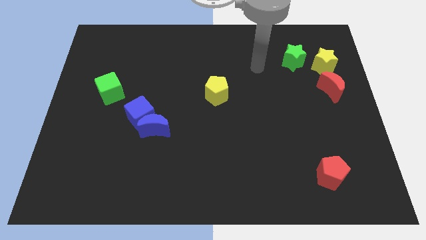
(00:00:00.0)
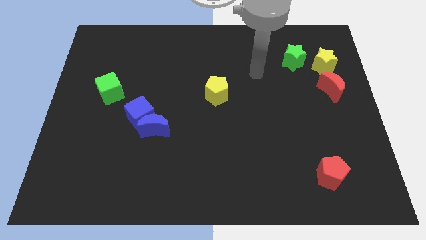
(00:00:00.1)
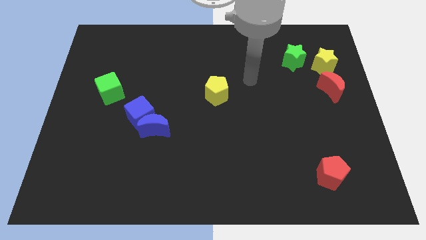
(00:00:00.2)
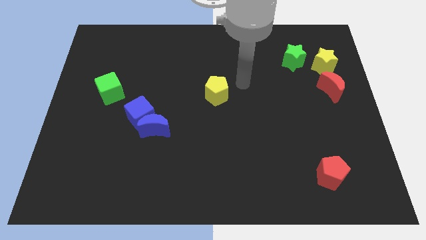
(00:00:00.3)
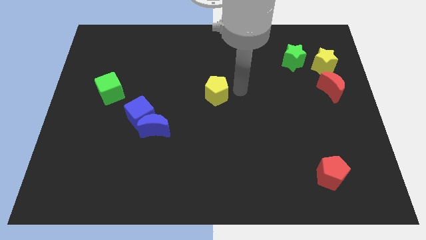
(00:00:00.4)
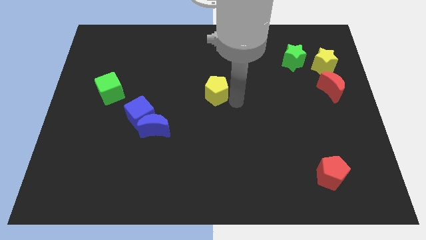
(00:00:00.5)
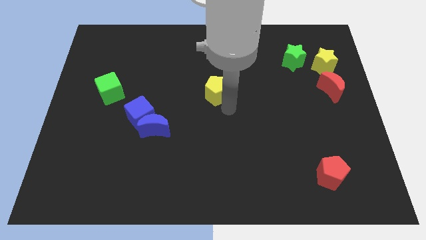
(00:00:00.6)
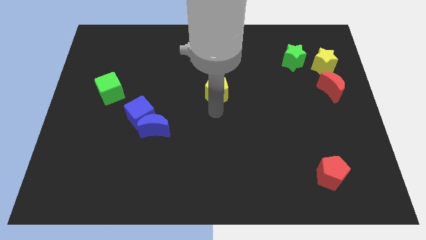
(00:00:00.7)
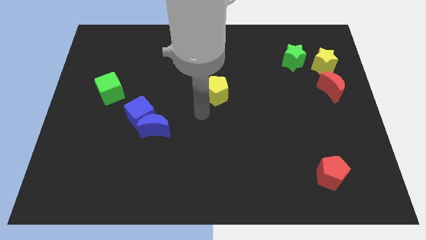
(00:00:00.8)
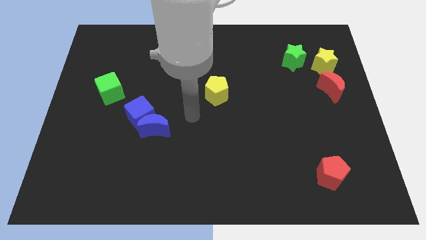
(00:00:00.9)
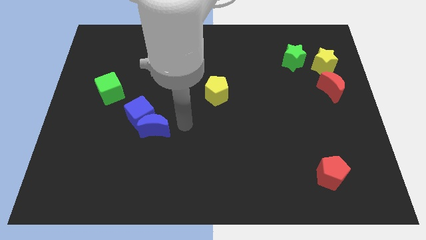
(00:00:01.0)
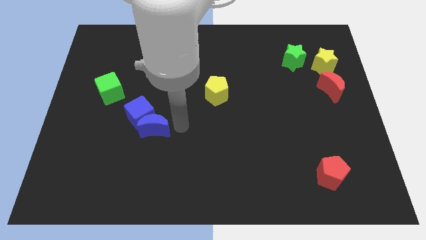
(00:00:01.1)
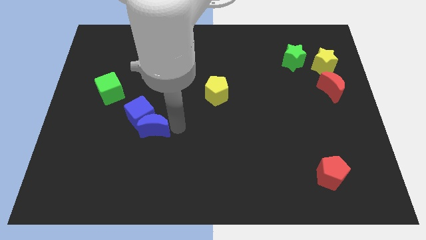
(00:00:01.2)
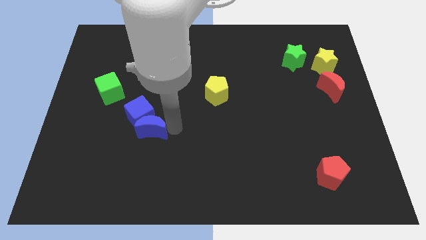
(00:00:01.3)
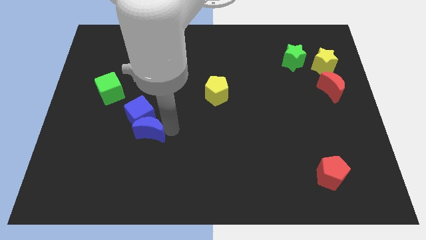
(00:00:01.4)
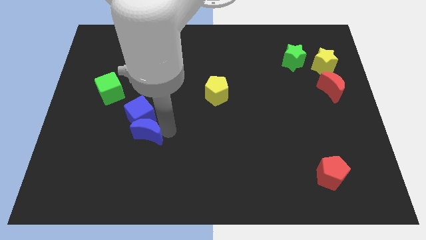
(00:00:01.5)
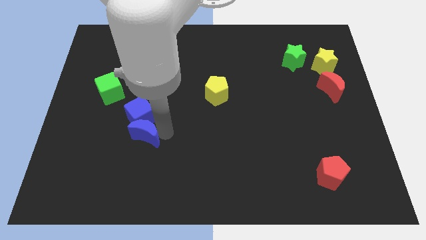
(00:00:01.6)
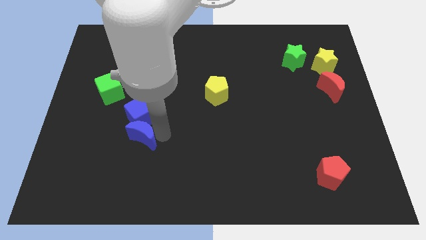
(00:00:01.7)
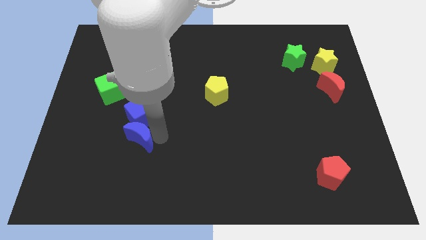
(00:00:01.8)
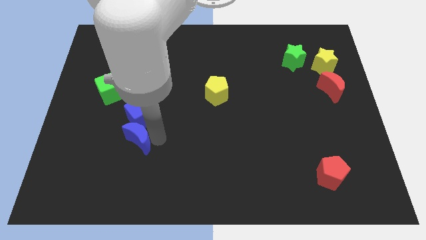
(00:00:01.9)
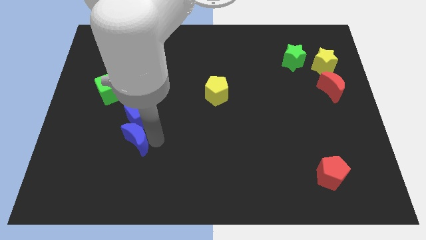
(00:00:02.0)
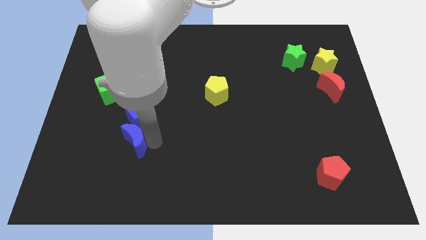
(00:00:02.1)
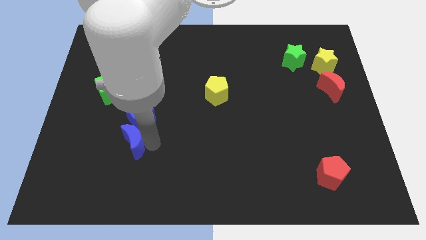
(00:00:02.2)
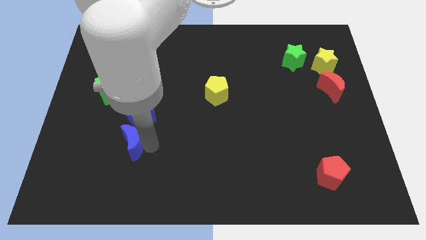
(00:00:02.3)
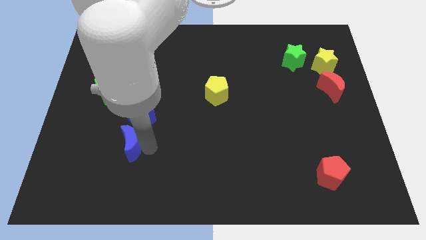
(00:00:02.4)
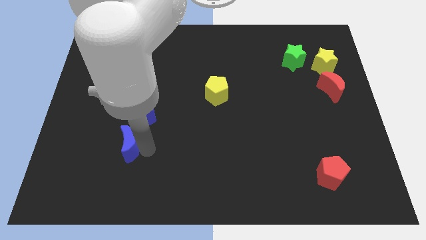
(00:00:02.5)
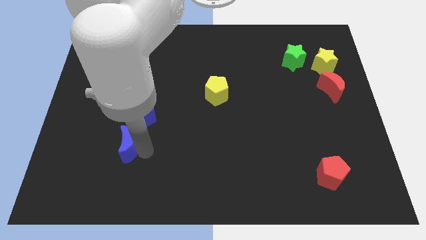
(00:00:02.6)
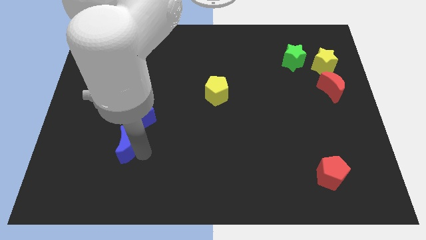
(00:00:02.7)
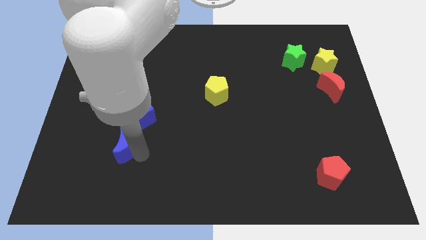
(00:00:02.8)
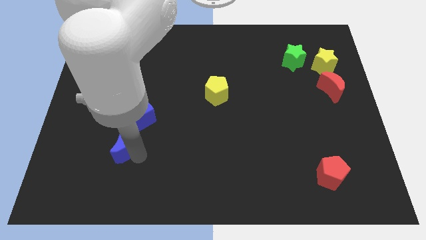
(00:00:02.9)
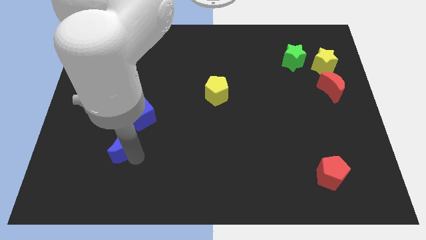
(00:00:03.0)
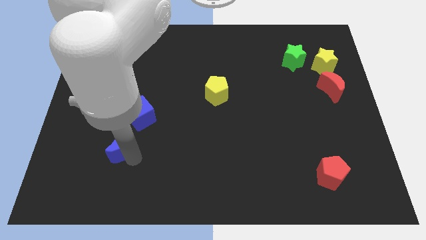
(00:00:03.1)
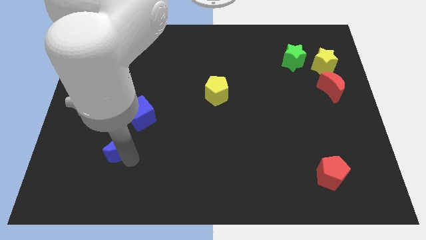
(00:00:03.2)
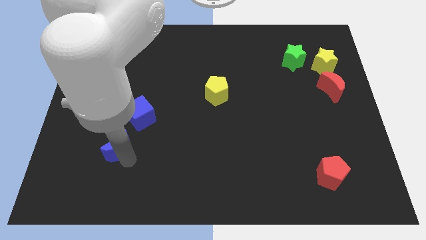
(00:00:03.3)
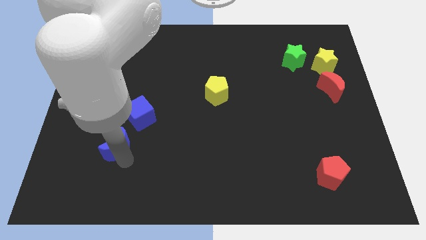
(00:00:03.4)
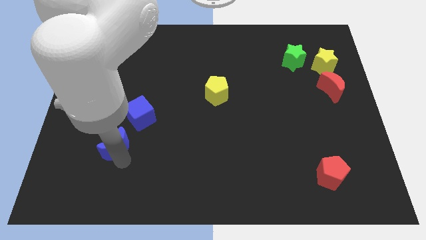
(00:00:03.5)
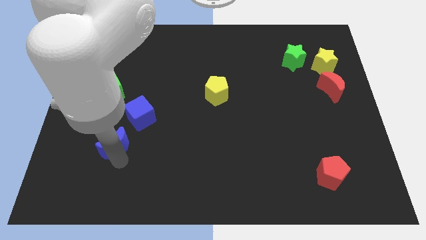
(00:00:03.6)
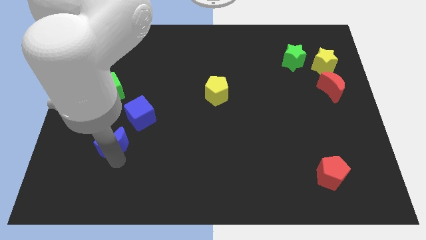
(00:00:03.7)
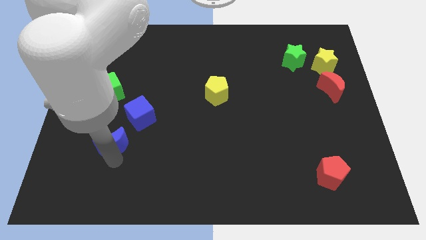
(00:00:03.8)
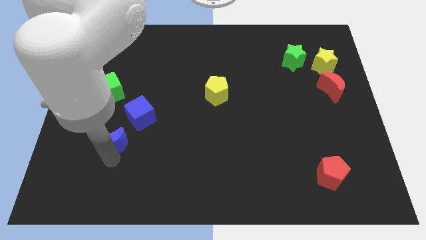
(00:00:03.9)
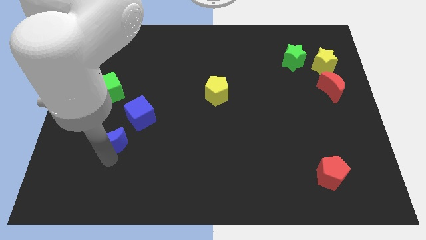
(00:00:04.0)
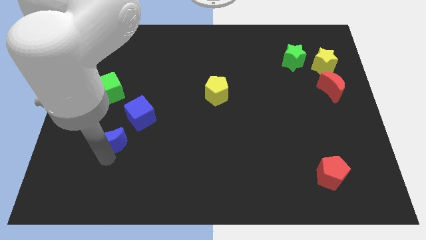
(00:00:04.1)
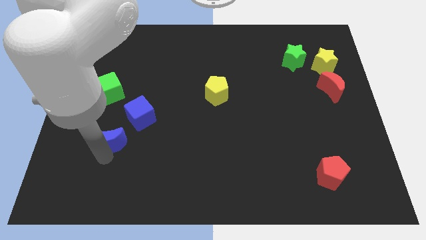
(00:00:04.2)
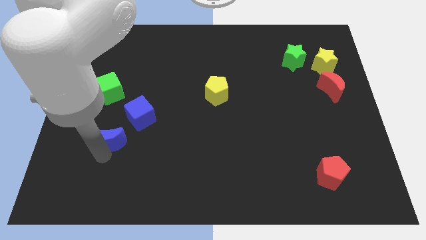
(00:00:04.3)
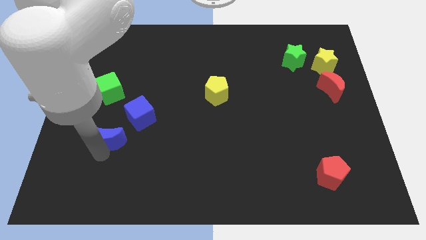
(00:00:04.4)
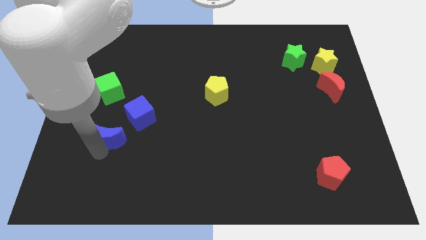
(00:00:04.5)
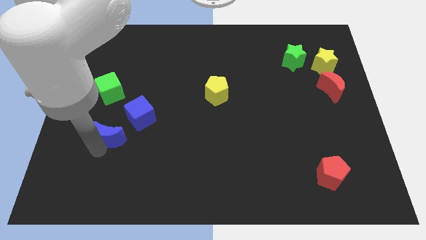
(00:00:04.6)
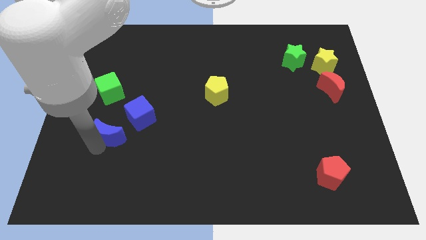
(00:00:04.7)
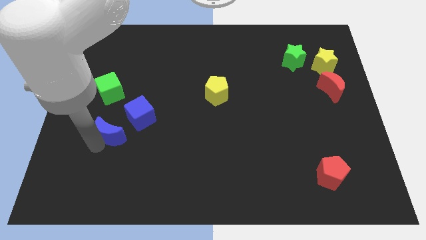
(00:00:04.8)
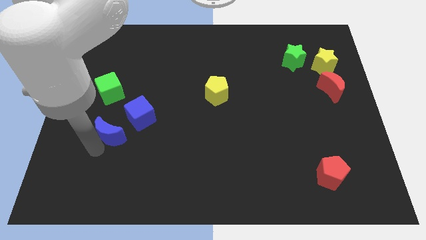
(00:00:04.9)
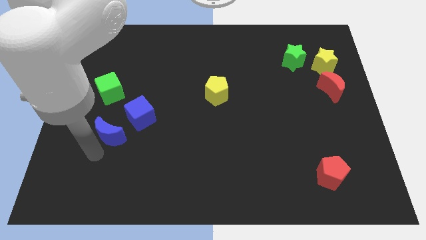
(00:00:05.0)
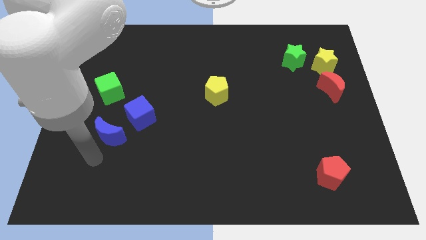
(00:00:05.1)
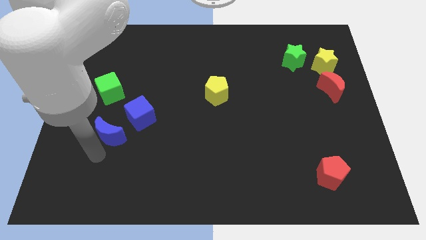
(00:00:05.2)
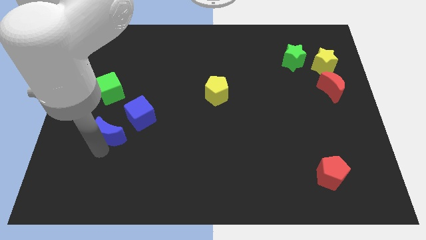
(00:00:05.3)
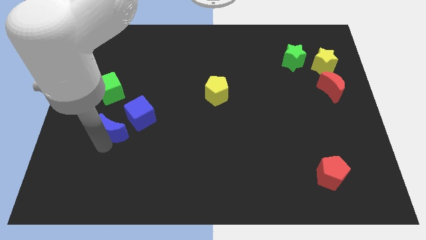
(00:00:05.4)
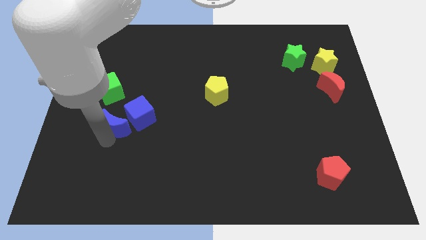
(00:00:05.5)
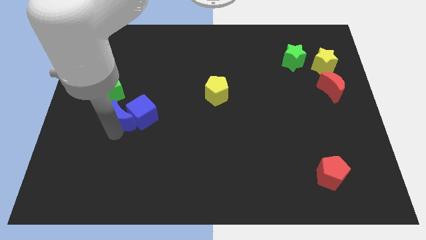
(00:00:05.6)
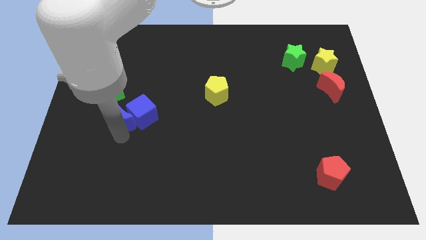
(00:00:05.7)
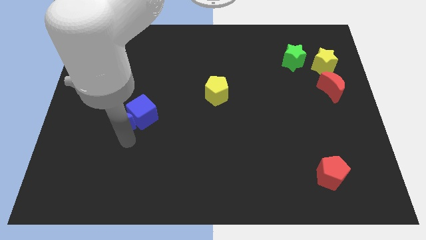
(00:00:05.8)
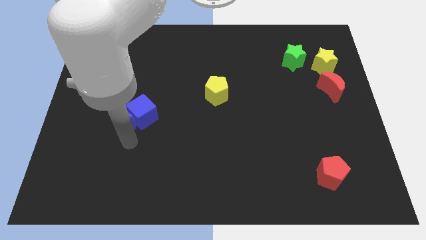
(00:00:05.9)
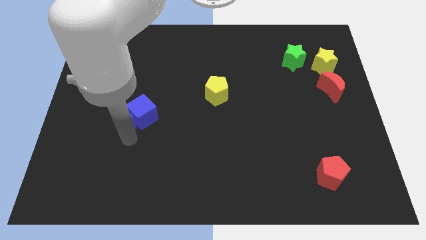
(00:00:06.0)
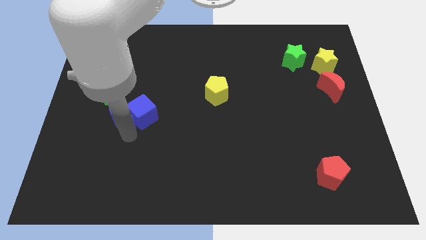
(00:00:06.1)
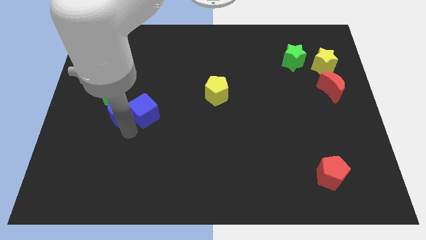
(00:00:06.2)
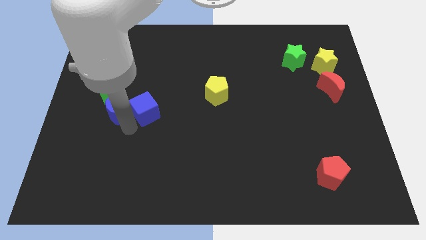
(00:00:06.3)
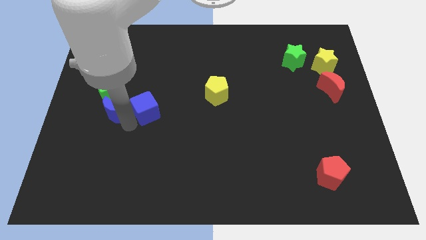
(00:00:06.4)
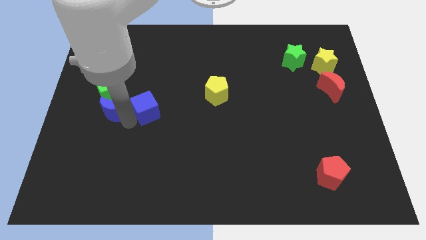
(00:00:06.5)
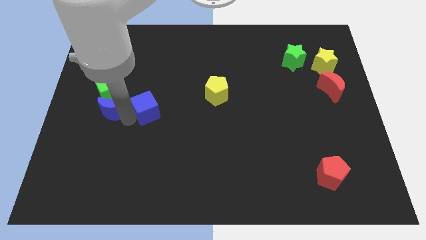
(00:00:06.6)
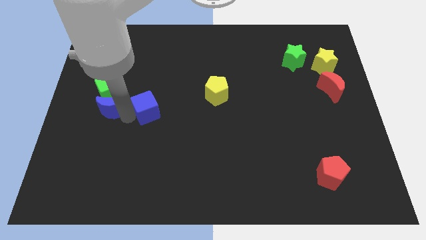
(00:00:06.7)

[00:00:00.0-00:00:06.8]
slide the blue moon close to the green cube
